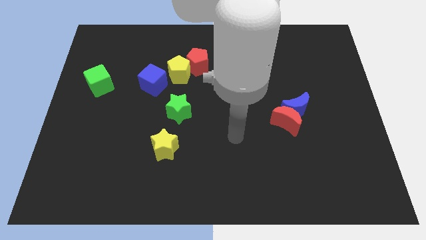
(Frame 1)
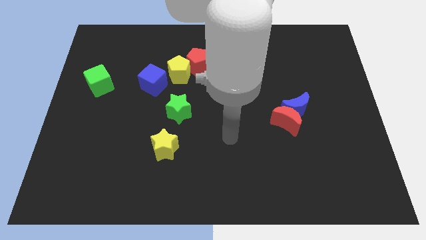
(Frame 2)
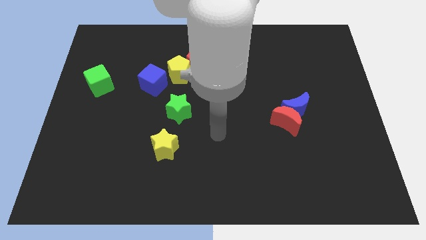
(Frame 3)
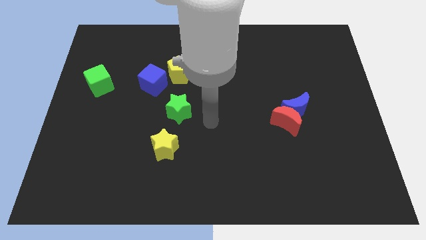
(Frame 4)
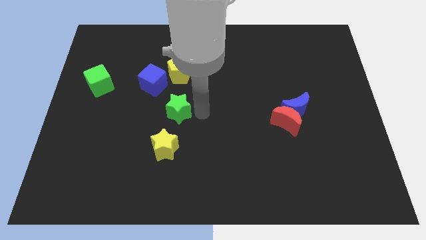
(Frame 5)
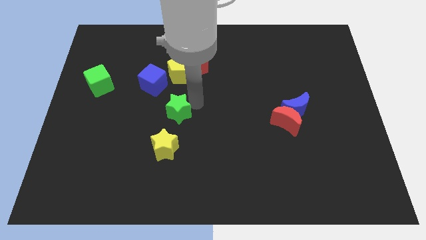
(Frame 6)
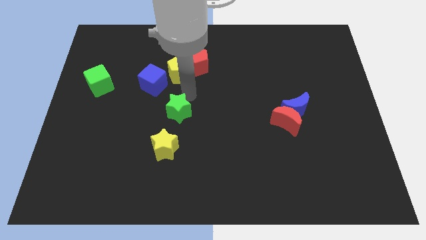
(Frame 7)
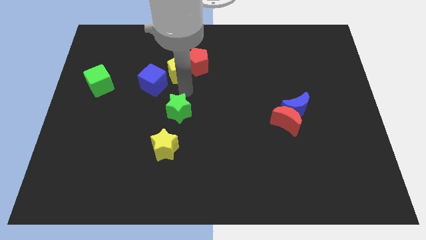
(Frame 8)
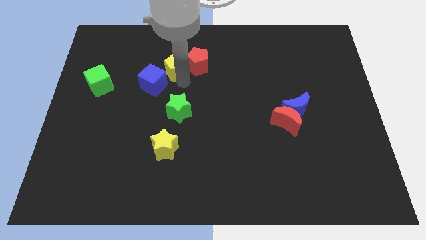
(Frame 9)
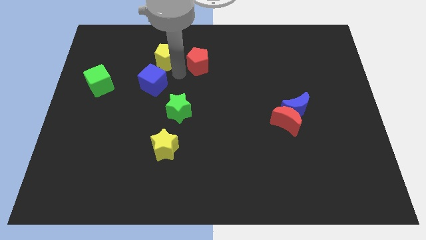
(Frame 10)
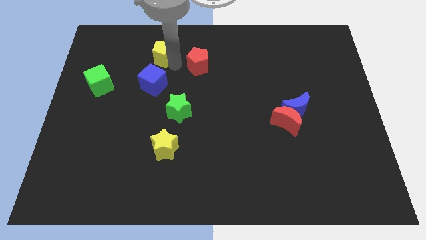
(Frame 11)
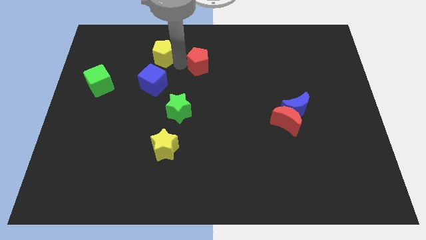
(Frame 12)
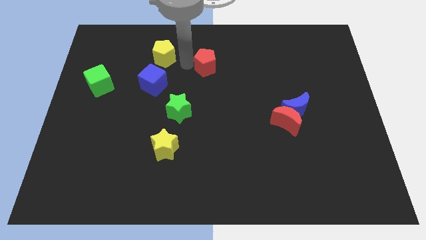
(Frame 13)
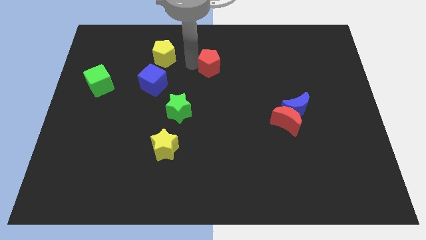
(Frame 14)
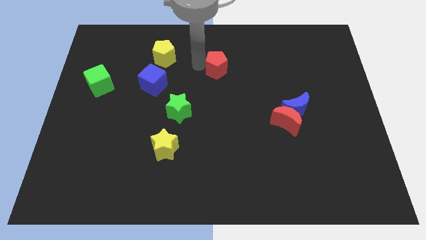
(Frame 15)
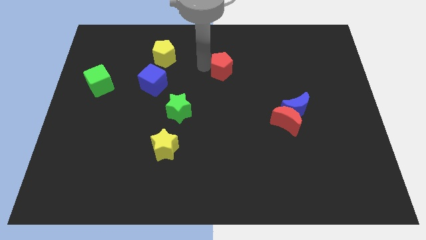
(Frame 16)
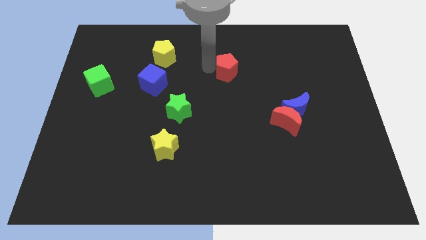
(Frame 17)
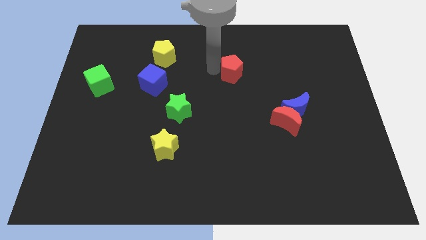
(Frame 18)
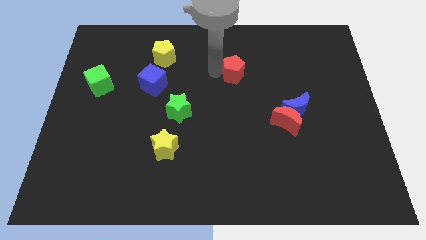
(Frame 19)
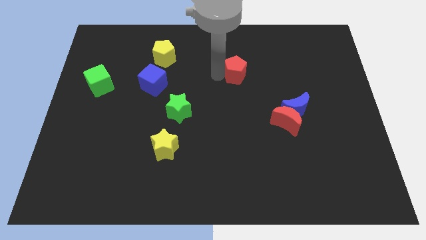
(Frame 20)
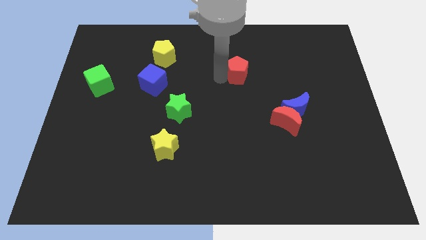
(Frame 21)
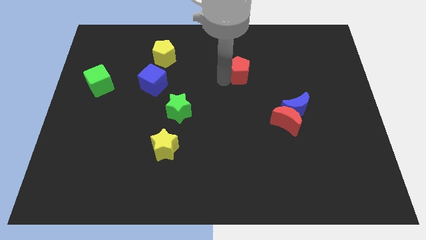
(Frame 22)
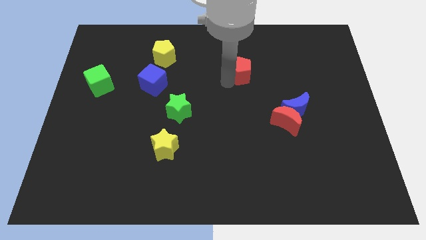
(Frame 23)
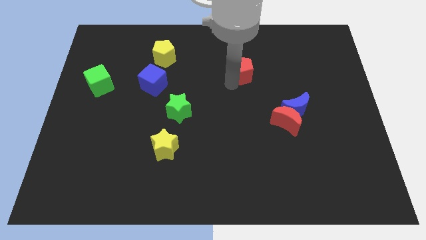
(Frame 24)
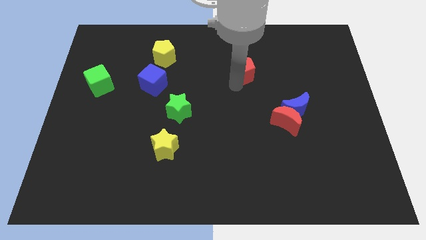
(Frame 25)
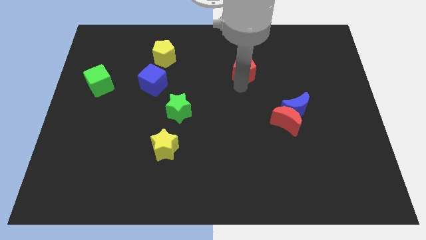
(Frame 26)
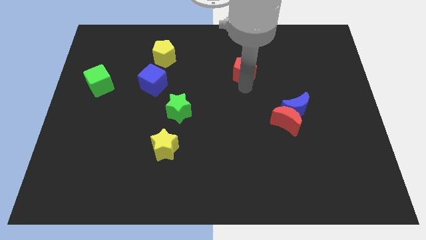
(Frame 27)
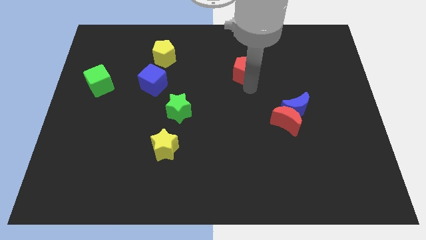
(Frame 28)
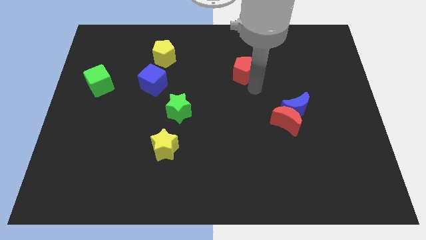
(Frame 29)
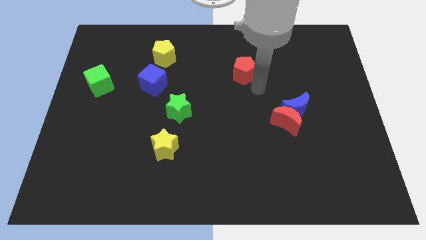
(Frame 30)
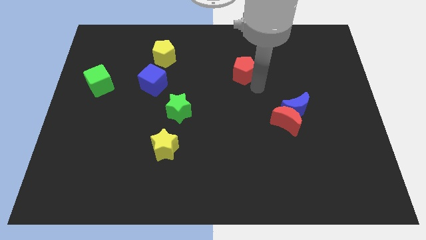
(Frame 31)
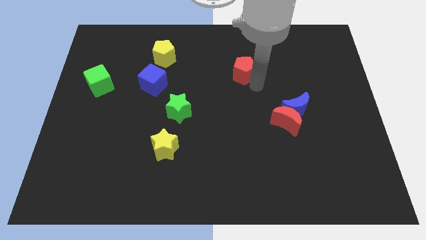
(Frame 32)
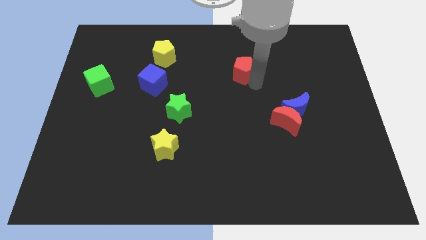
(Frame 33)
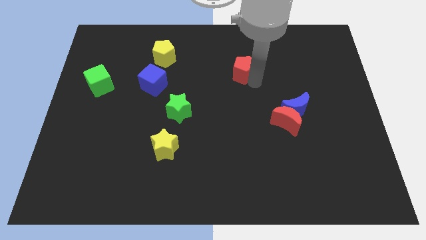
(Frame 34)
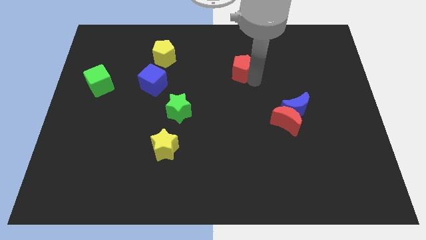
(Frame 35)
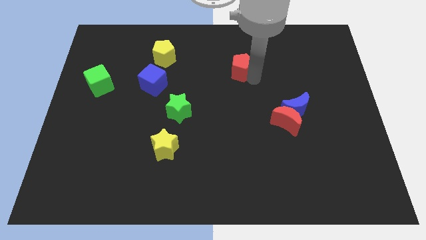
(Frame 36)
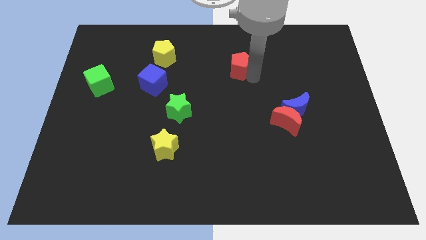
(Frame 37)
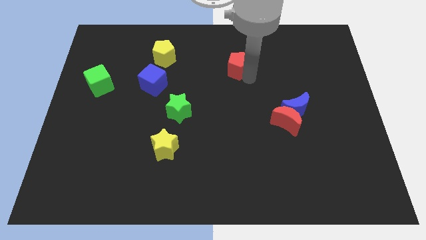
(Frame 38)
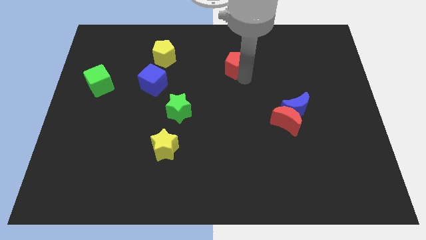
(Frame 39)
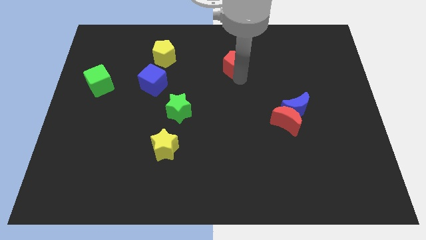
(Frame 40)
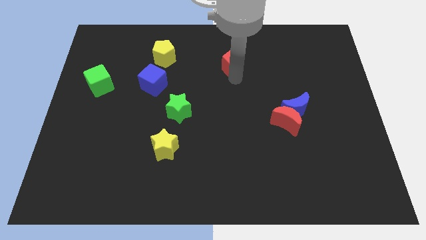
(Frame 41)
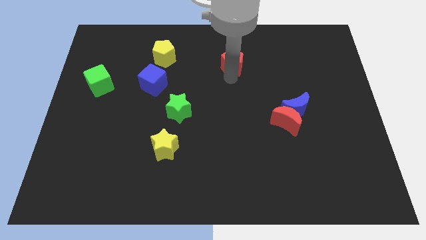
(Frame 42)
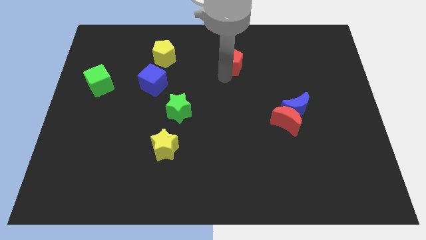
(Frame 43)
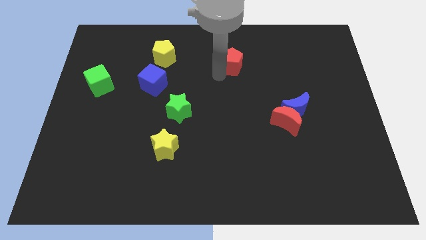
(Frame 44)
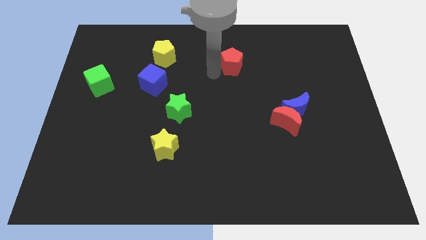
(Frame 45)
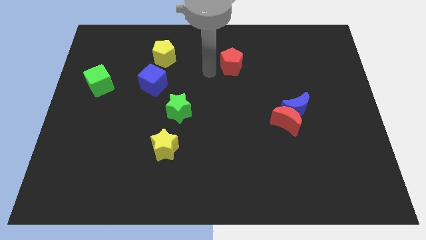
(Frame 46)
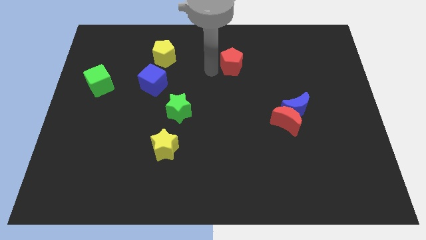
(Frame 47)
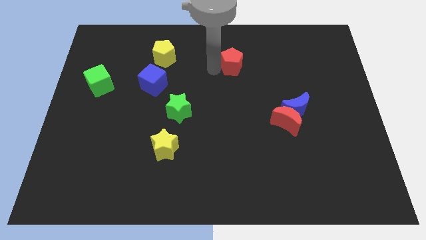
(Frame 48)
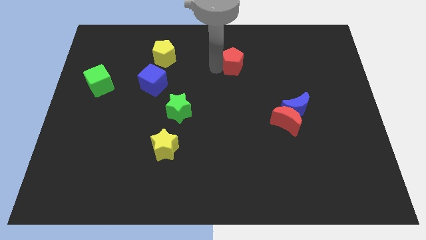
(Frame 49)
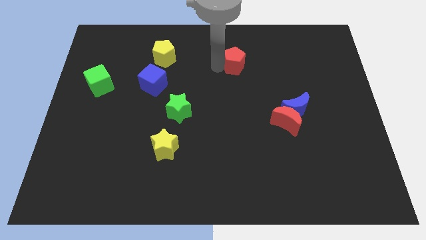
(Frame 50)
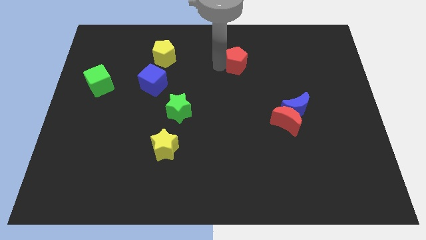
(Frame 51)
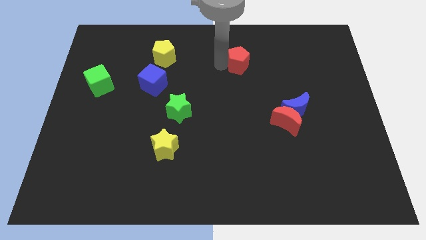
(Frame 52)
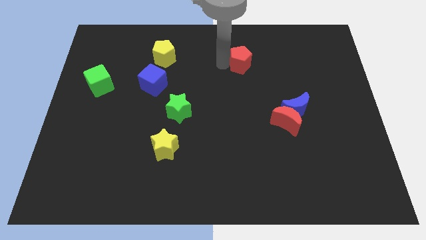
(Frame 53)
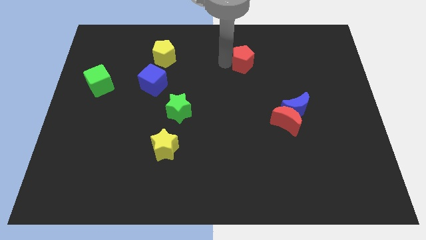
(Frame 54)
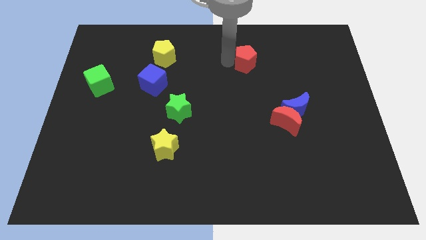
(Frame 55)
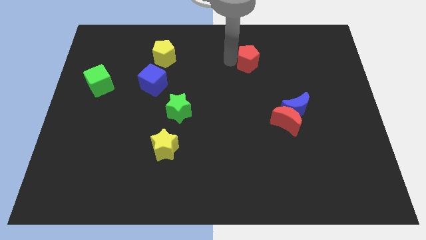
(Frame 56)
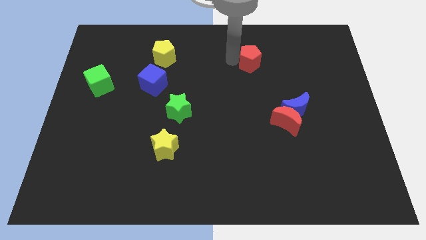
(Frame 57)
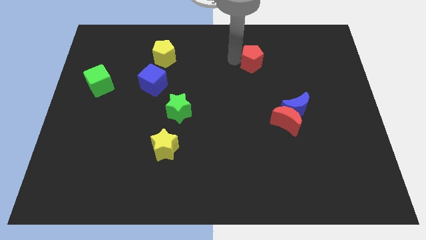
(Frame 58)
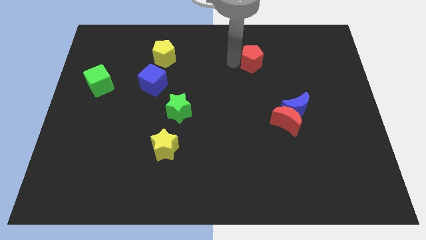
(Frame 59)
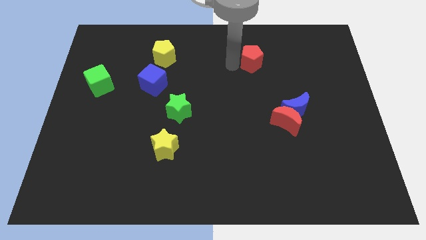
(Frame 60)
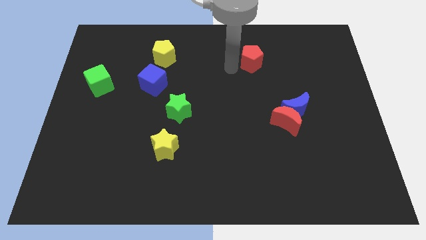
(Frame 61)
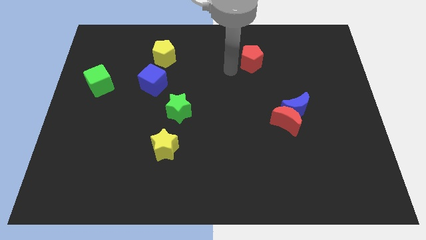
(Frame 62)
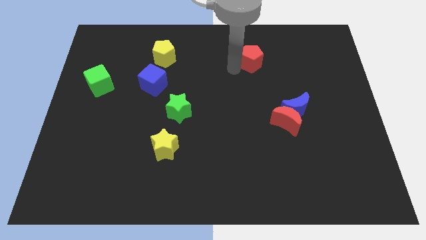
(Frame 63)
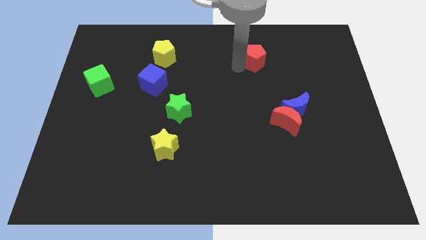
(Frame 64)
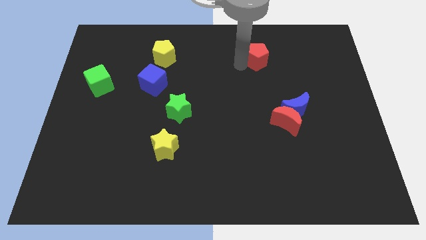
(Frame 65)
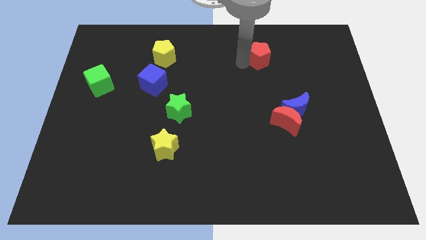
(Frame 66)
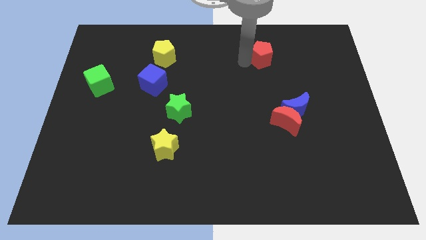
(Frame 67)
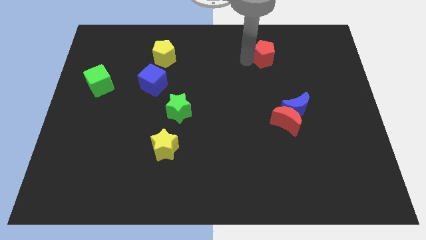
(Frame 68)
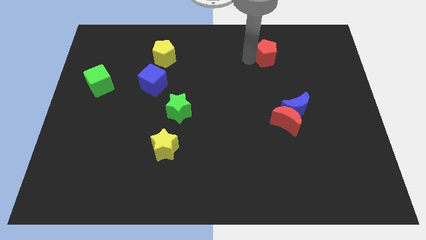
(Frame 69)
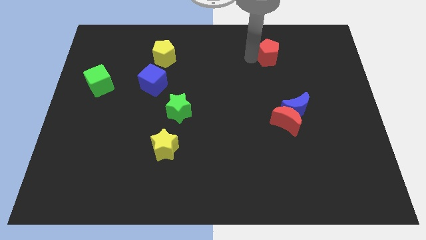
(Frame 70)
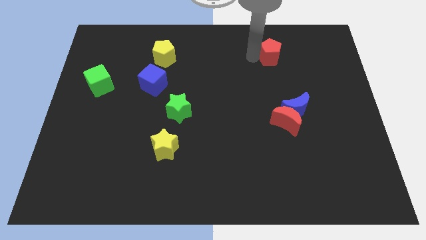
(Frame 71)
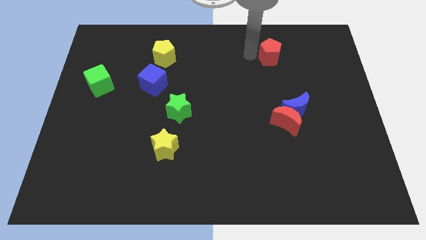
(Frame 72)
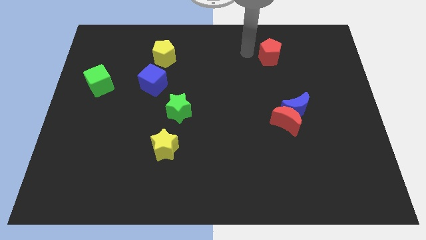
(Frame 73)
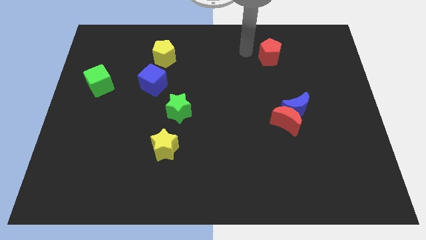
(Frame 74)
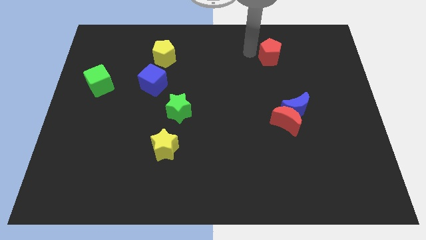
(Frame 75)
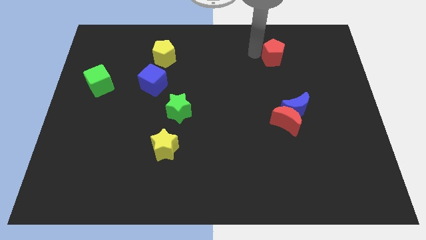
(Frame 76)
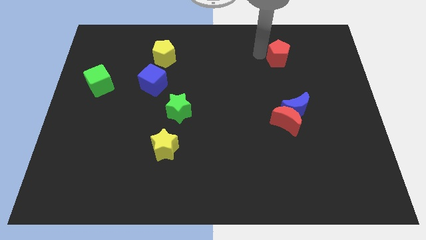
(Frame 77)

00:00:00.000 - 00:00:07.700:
push the red pentagon right

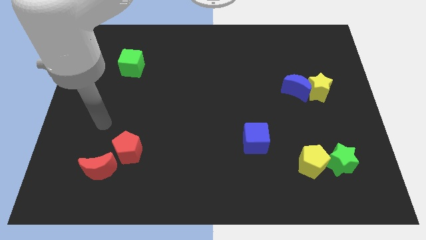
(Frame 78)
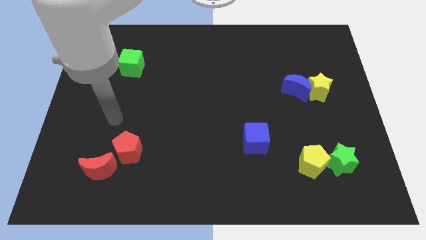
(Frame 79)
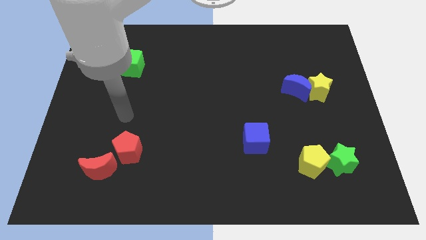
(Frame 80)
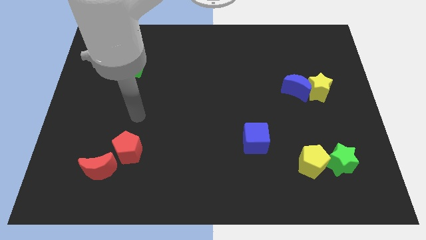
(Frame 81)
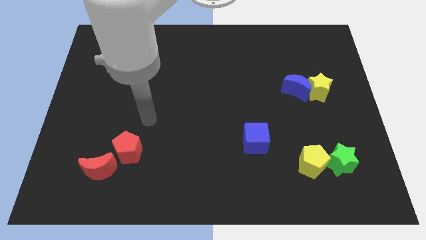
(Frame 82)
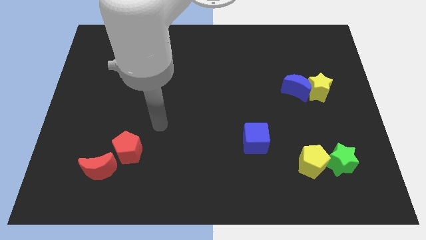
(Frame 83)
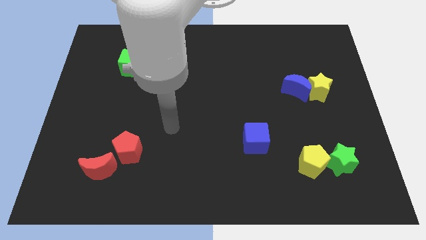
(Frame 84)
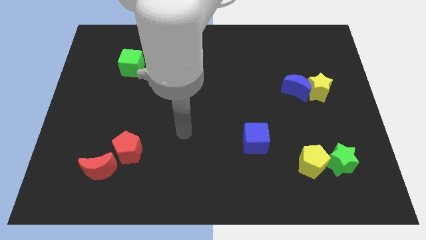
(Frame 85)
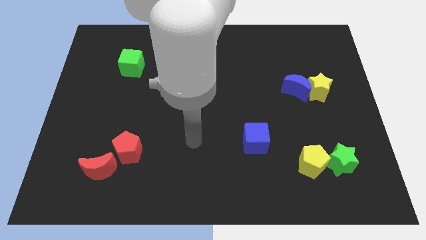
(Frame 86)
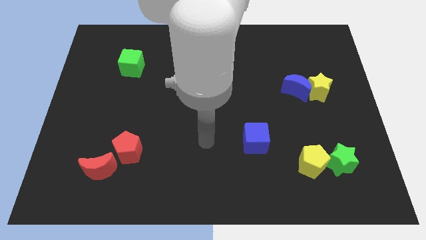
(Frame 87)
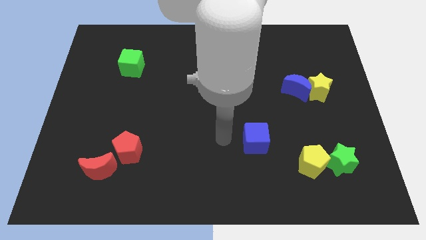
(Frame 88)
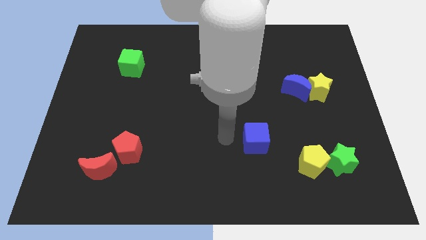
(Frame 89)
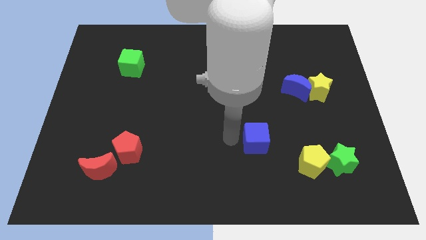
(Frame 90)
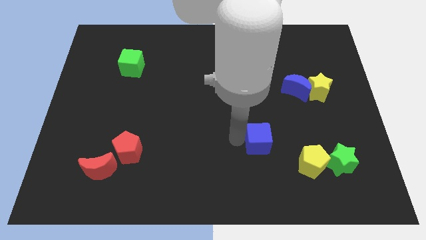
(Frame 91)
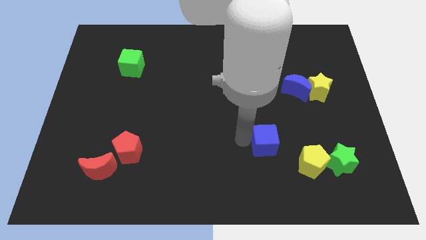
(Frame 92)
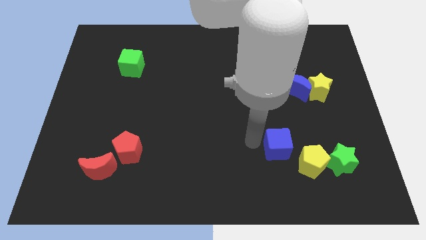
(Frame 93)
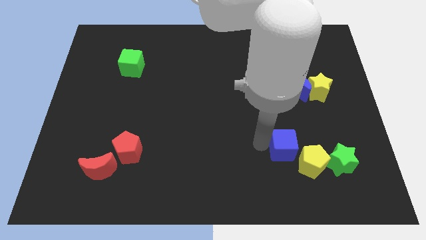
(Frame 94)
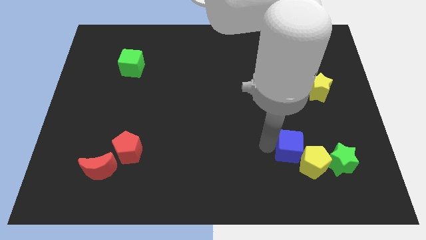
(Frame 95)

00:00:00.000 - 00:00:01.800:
move the blue cube slightly right
